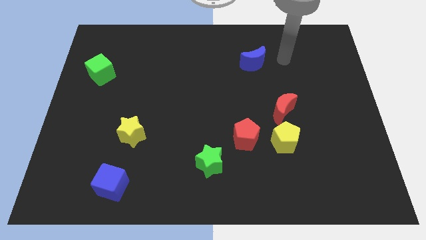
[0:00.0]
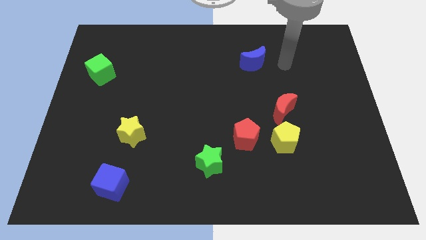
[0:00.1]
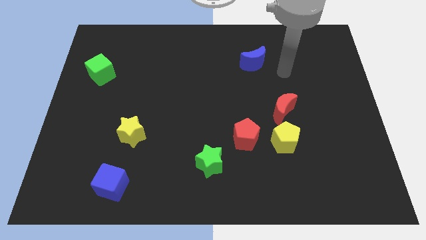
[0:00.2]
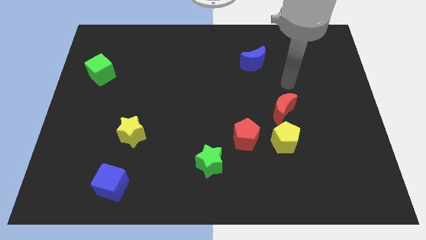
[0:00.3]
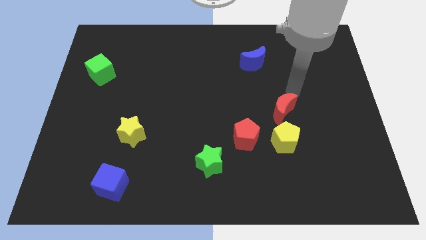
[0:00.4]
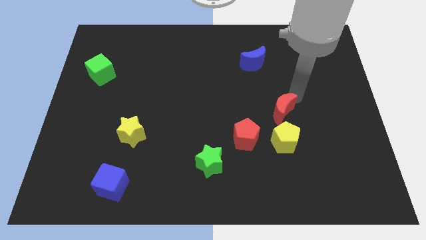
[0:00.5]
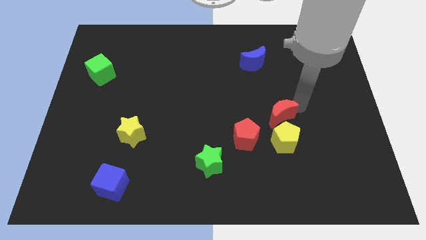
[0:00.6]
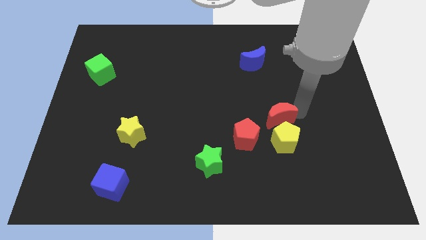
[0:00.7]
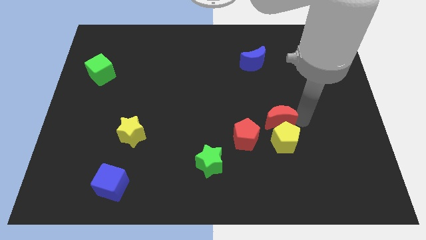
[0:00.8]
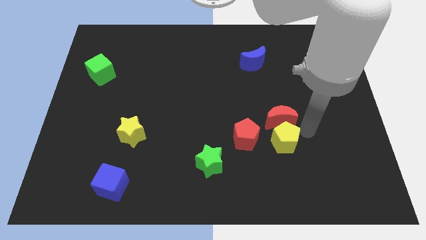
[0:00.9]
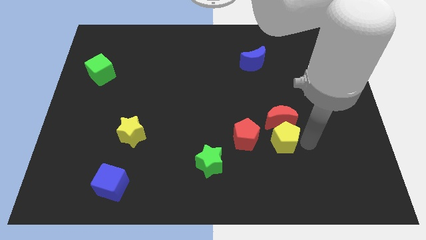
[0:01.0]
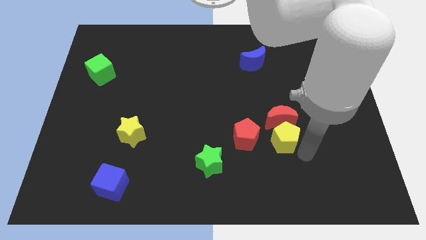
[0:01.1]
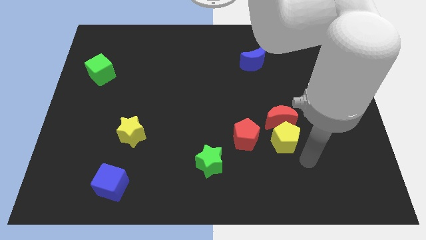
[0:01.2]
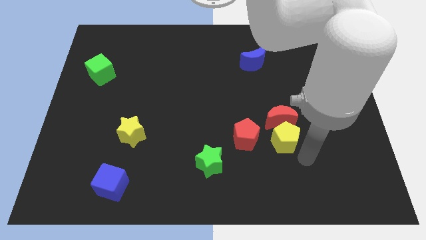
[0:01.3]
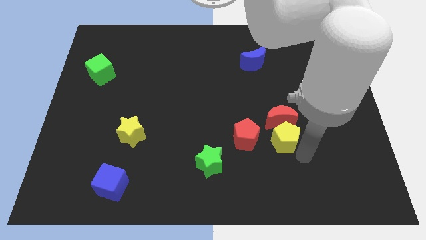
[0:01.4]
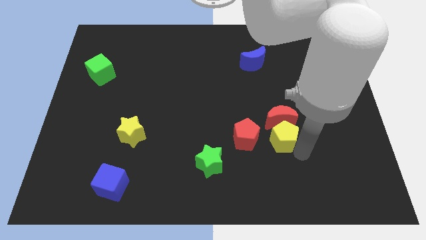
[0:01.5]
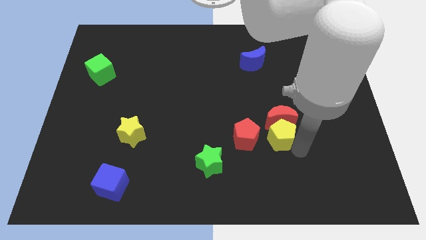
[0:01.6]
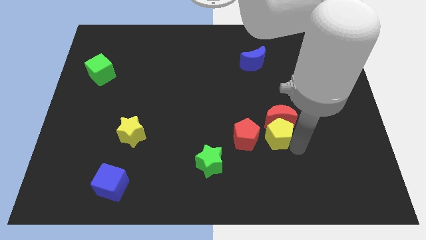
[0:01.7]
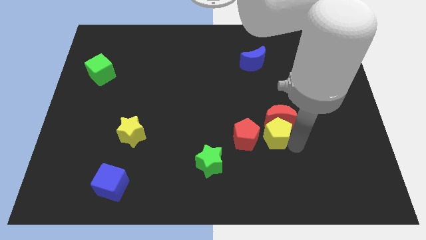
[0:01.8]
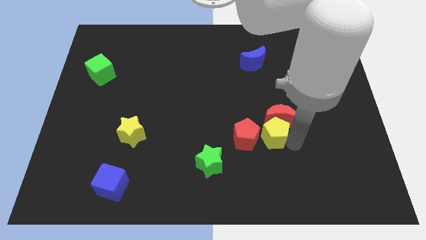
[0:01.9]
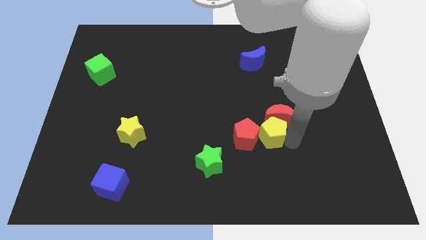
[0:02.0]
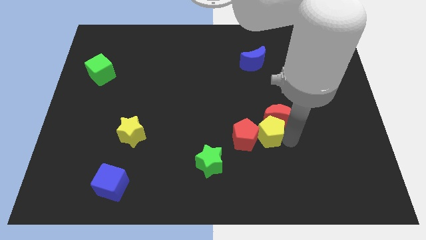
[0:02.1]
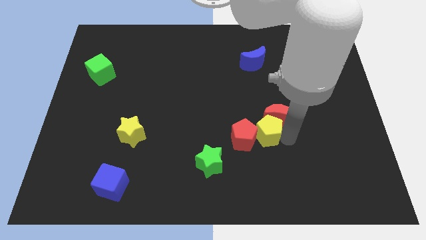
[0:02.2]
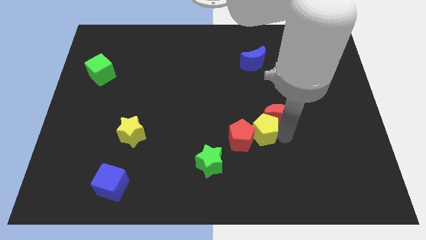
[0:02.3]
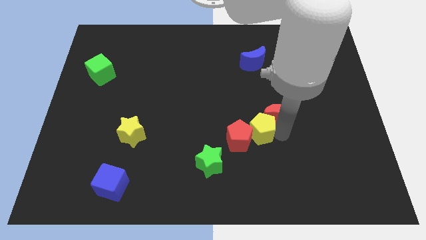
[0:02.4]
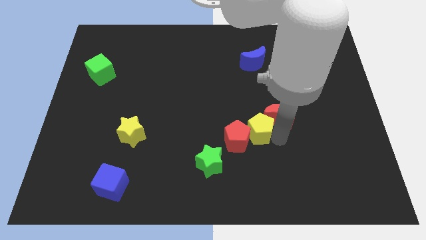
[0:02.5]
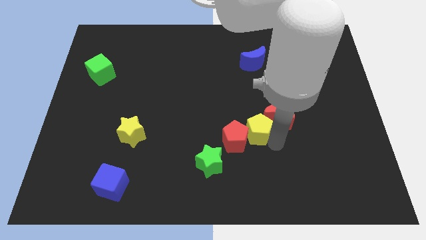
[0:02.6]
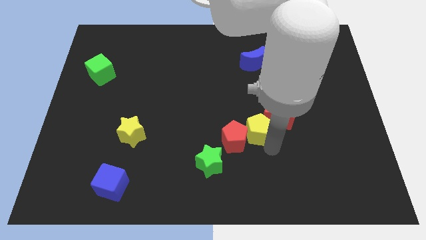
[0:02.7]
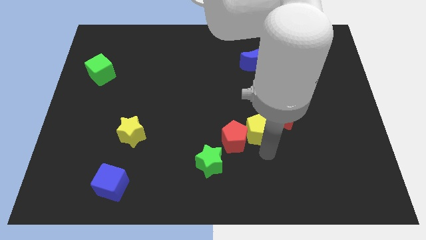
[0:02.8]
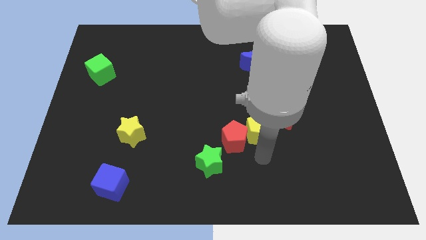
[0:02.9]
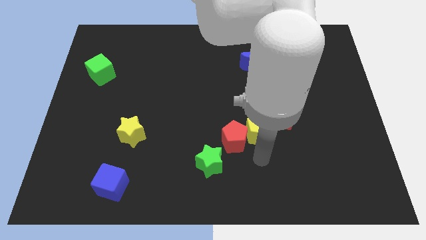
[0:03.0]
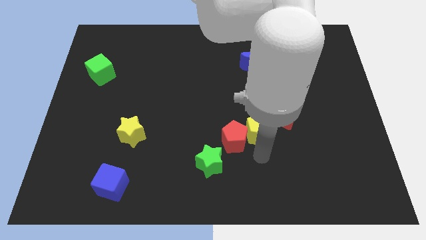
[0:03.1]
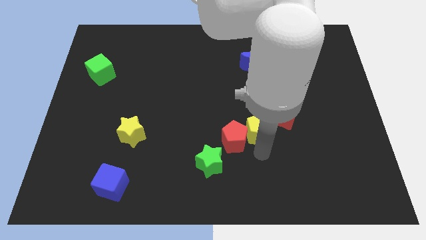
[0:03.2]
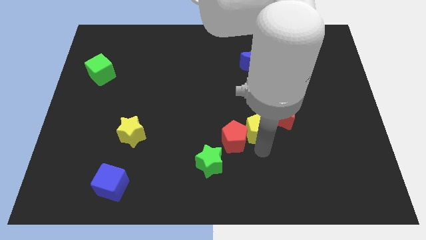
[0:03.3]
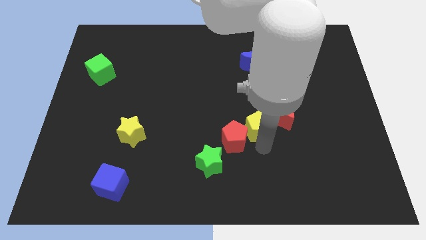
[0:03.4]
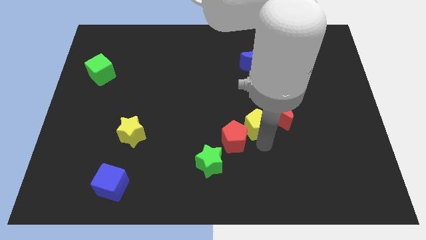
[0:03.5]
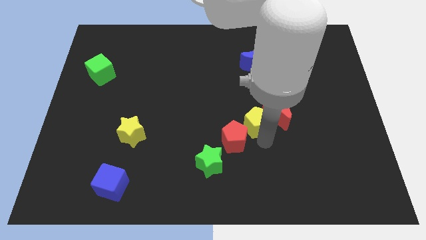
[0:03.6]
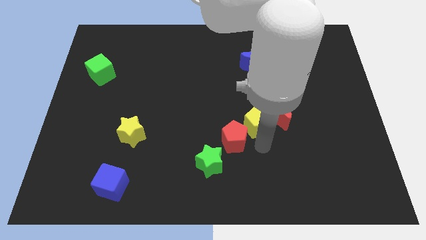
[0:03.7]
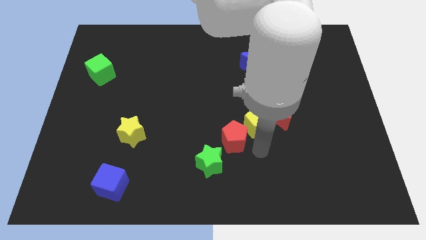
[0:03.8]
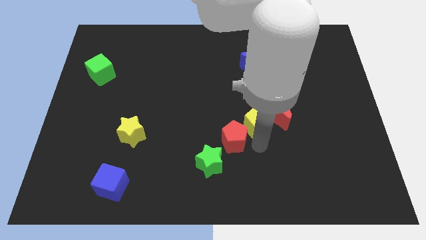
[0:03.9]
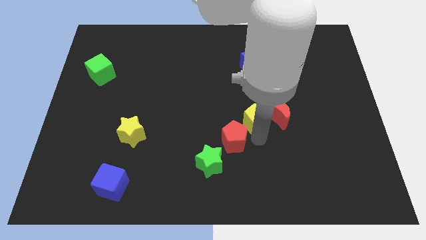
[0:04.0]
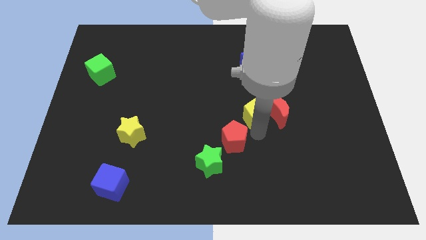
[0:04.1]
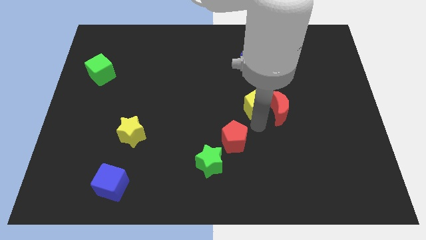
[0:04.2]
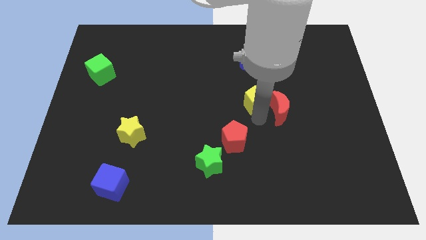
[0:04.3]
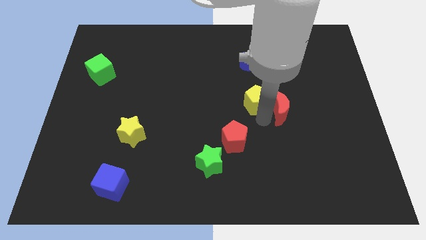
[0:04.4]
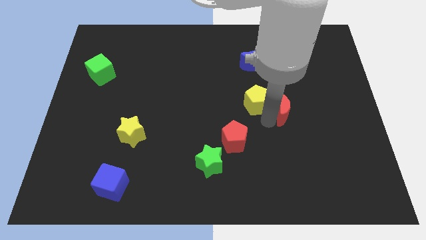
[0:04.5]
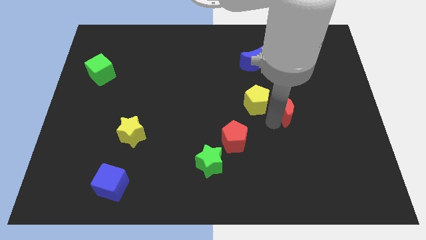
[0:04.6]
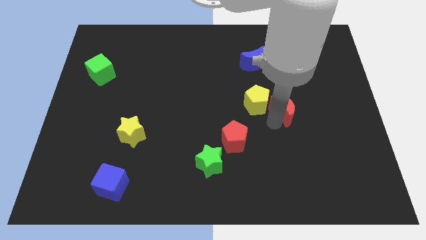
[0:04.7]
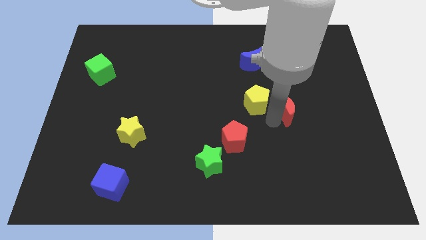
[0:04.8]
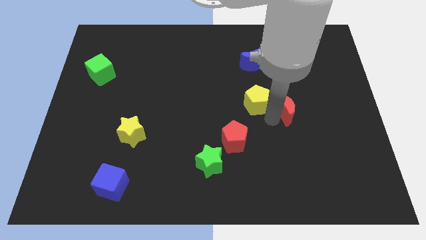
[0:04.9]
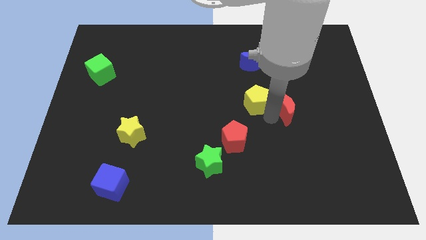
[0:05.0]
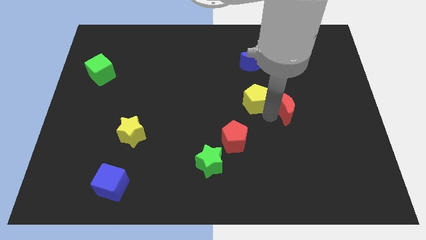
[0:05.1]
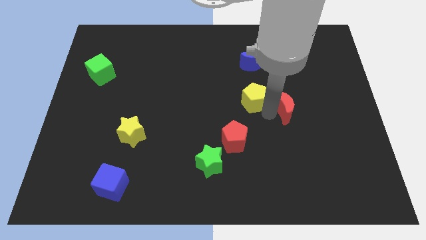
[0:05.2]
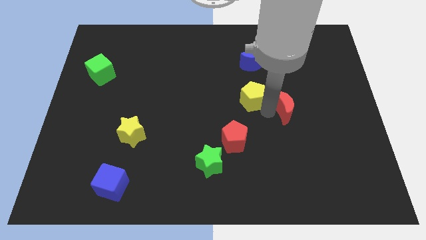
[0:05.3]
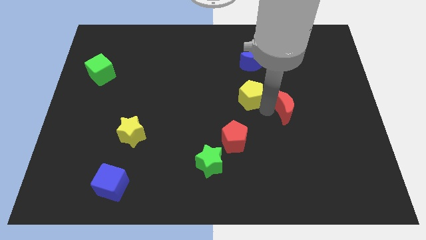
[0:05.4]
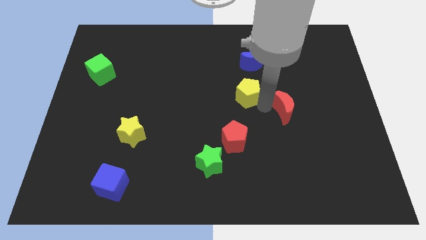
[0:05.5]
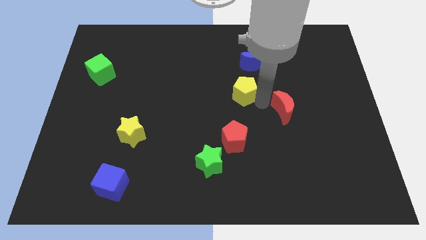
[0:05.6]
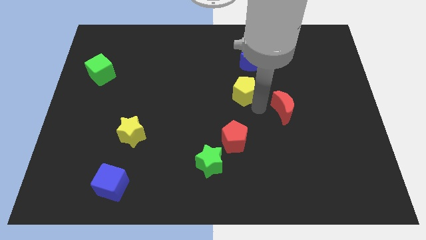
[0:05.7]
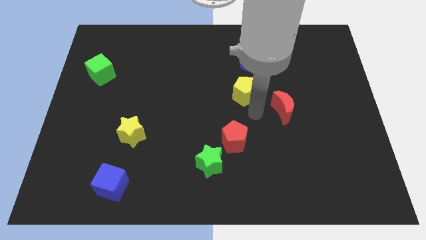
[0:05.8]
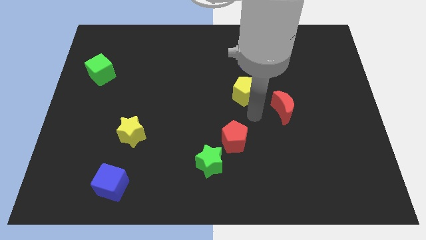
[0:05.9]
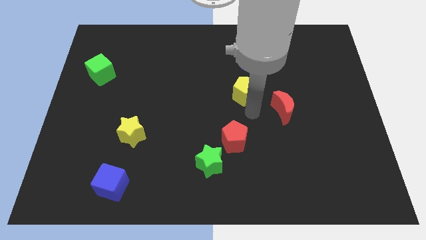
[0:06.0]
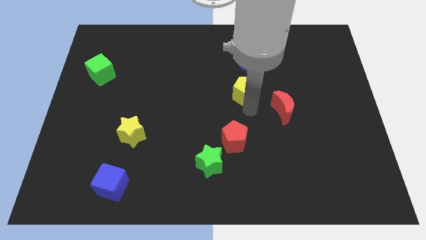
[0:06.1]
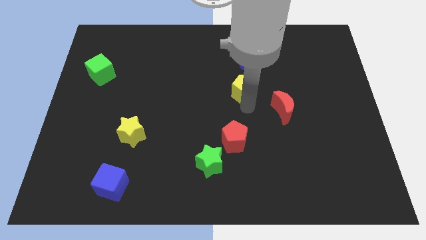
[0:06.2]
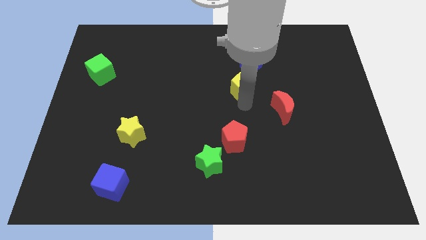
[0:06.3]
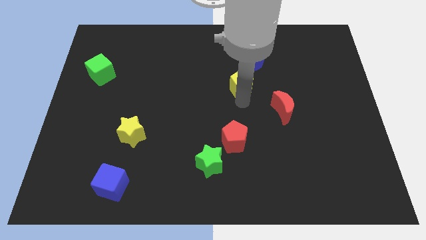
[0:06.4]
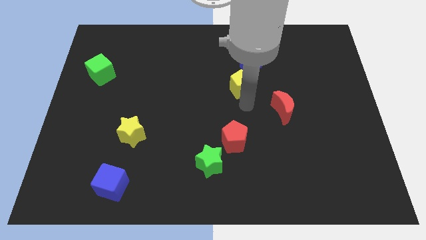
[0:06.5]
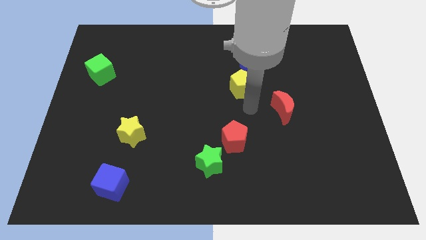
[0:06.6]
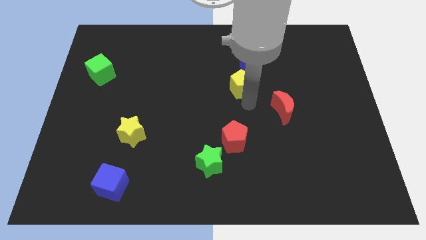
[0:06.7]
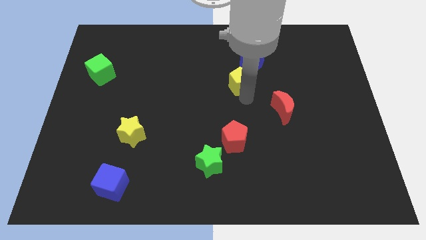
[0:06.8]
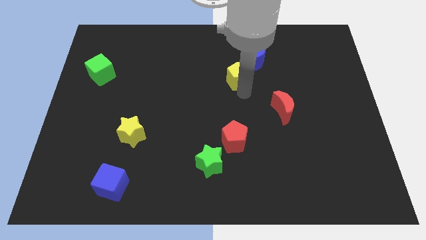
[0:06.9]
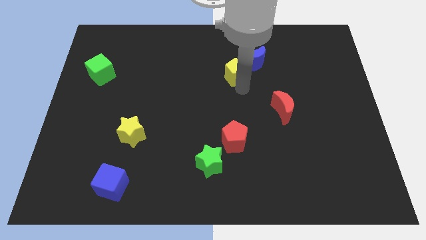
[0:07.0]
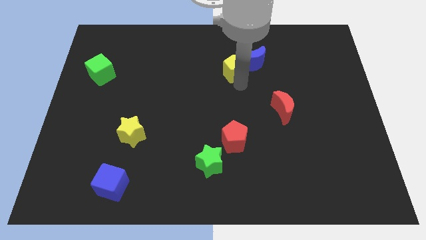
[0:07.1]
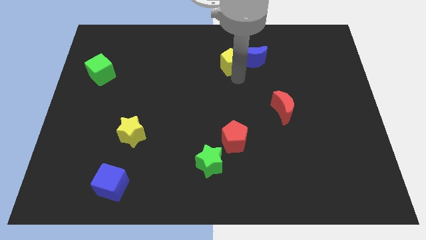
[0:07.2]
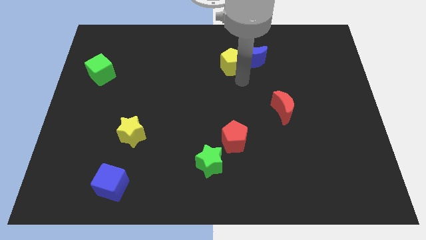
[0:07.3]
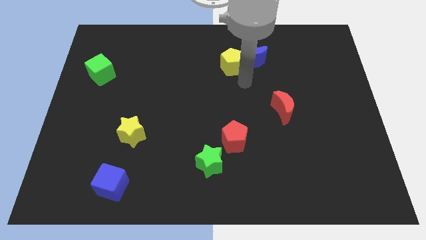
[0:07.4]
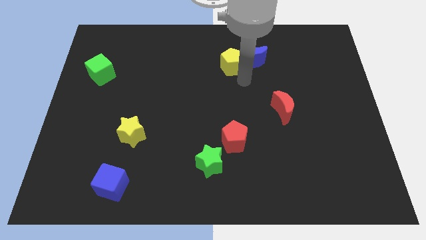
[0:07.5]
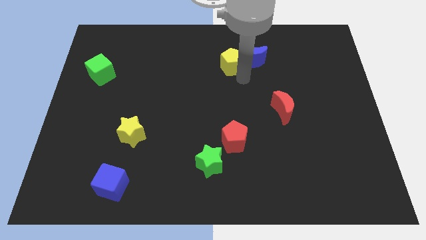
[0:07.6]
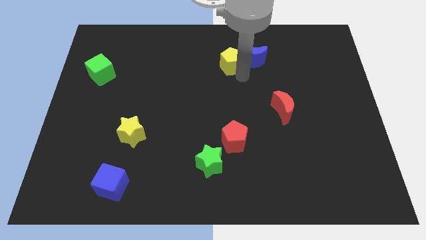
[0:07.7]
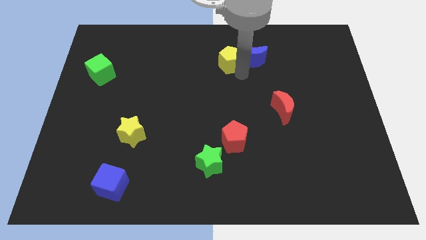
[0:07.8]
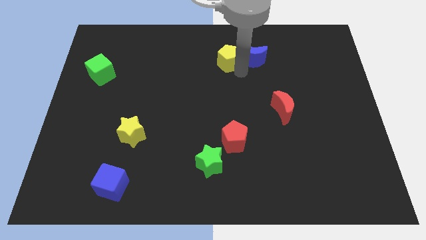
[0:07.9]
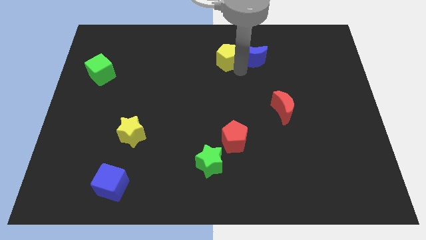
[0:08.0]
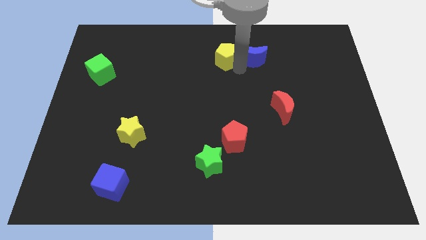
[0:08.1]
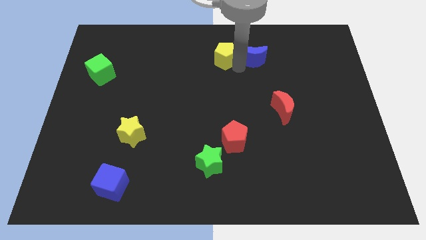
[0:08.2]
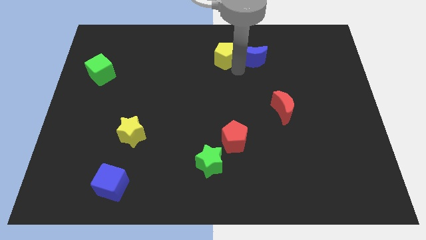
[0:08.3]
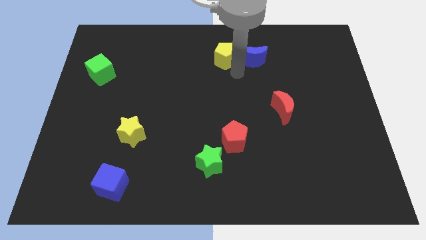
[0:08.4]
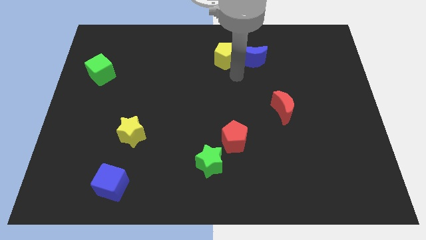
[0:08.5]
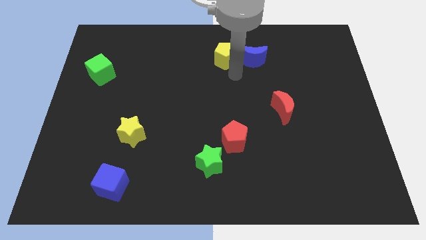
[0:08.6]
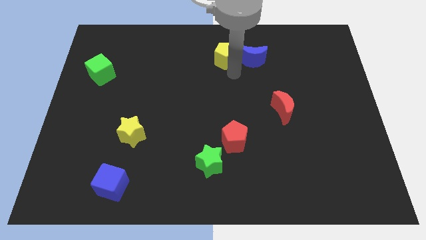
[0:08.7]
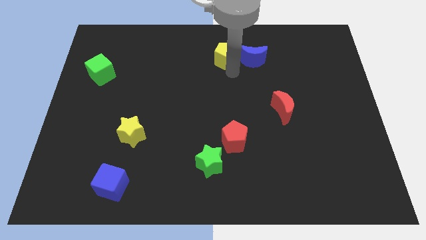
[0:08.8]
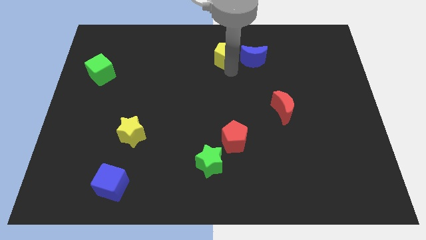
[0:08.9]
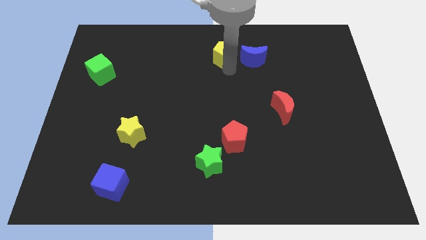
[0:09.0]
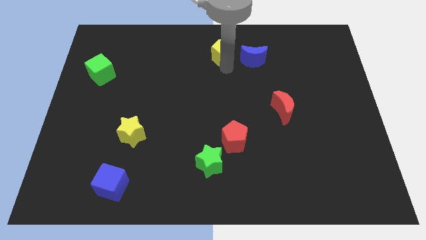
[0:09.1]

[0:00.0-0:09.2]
slide the yellow pentagon to the towards your base
